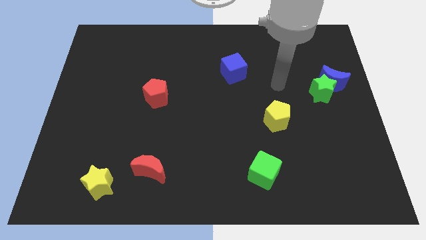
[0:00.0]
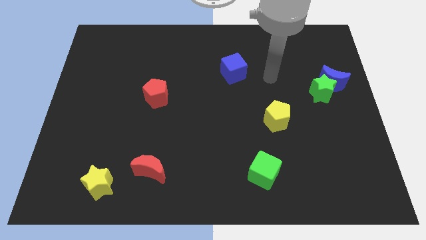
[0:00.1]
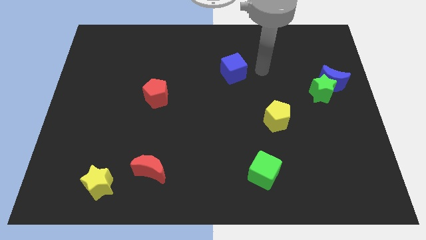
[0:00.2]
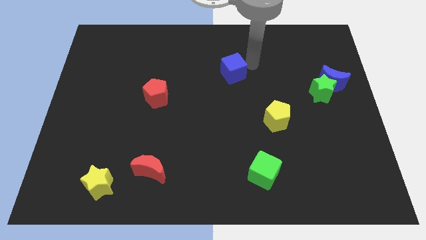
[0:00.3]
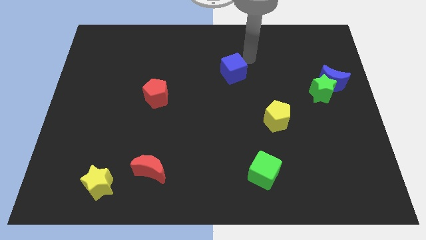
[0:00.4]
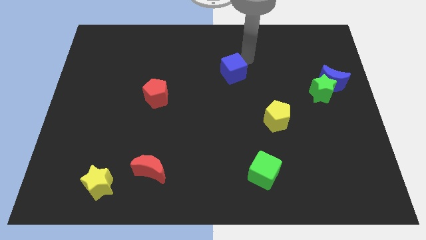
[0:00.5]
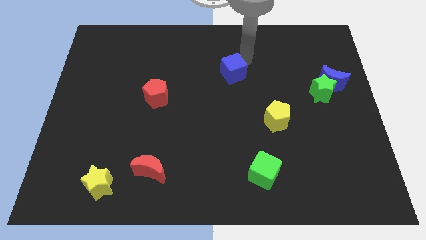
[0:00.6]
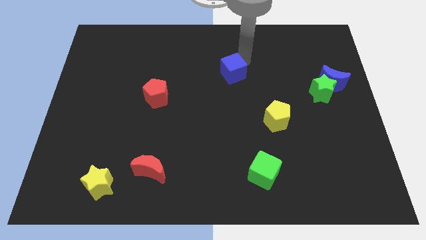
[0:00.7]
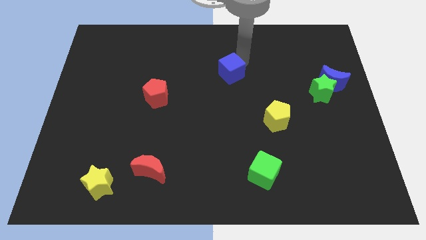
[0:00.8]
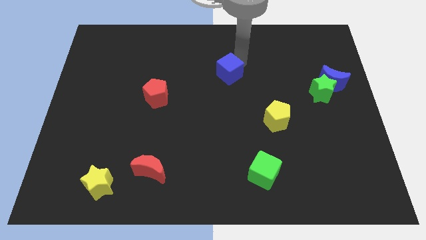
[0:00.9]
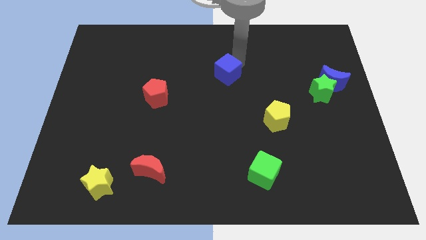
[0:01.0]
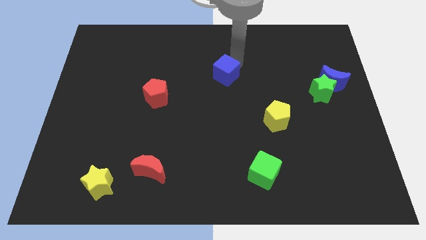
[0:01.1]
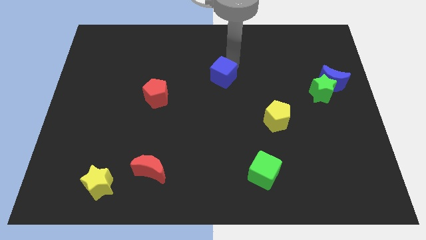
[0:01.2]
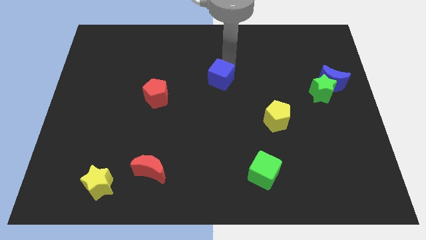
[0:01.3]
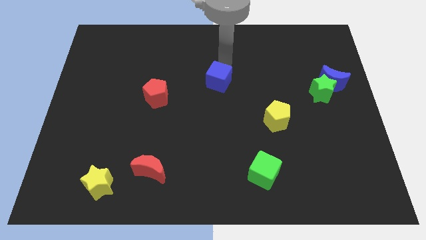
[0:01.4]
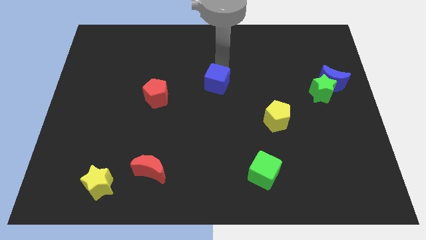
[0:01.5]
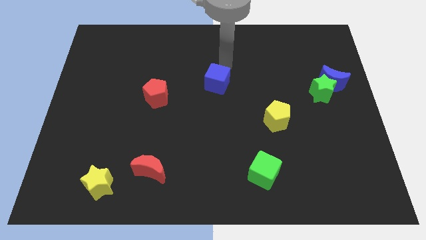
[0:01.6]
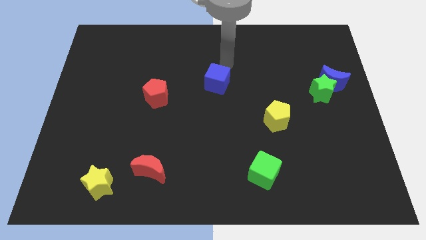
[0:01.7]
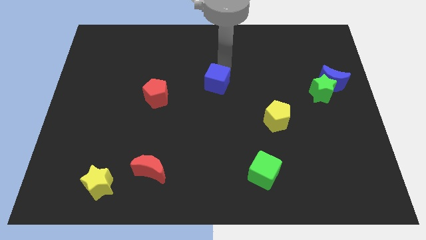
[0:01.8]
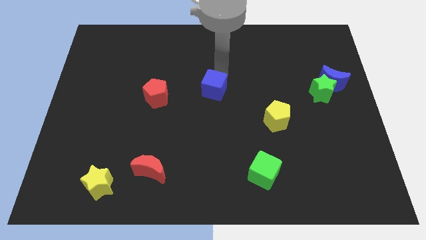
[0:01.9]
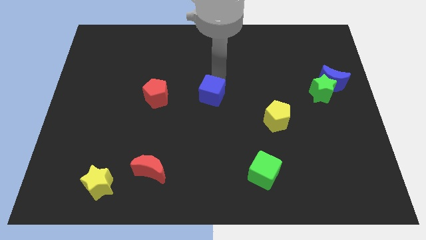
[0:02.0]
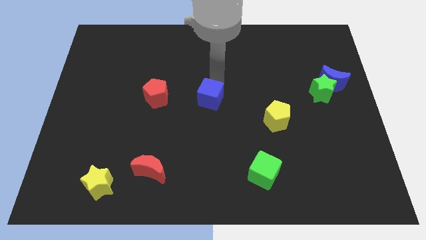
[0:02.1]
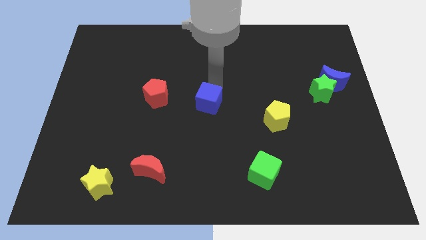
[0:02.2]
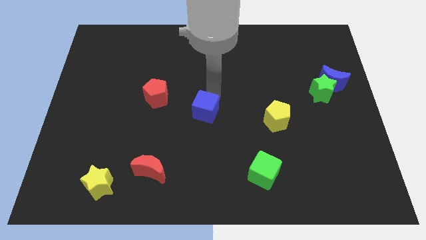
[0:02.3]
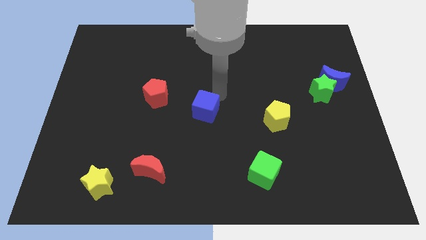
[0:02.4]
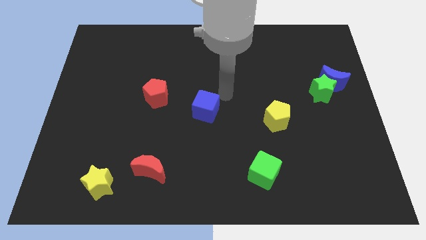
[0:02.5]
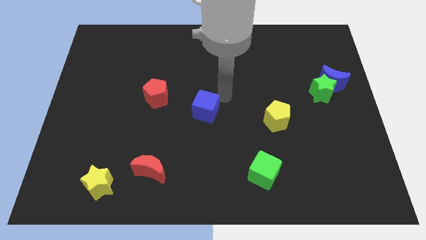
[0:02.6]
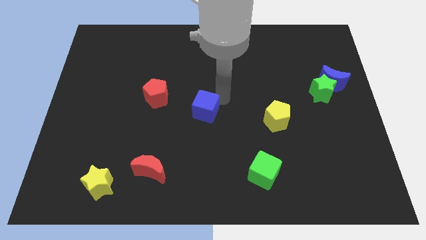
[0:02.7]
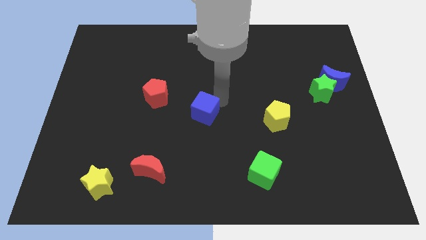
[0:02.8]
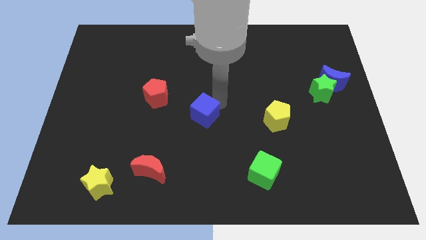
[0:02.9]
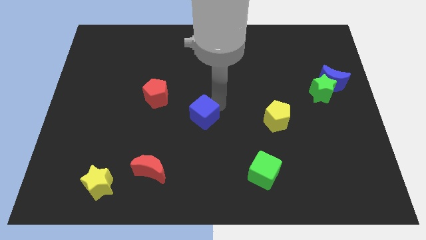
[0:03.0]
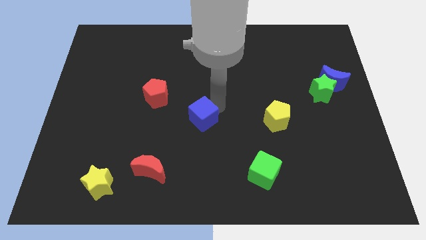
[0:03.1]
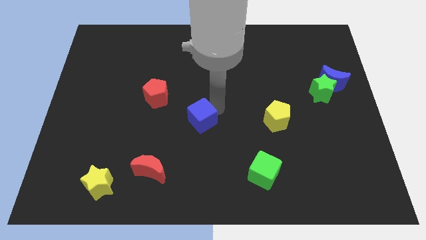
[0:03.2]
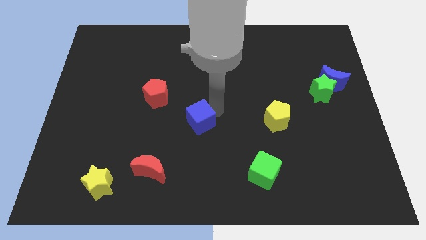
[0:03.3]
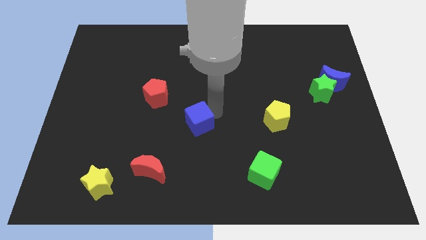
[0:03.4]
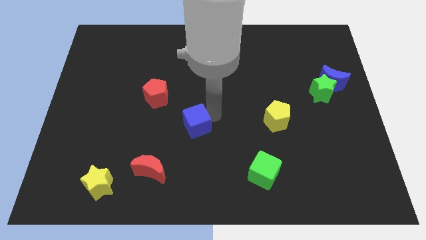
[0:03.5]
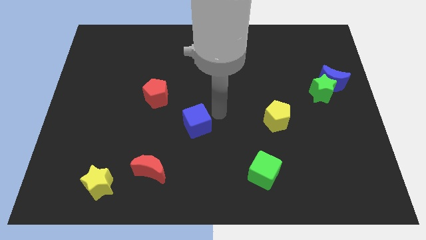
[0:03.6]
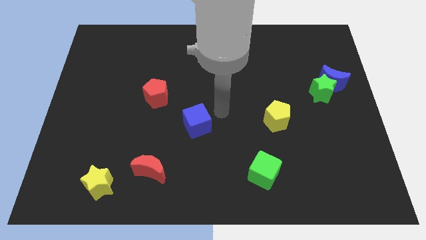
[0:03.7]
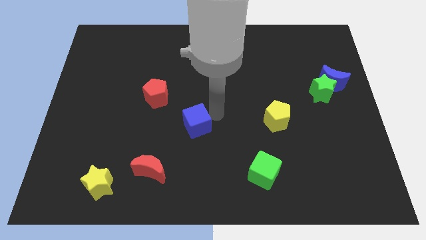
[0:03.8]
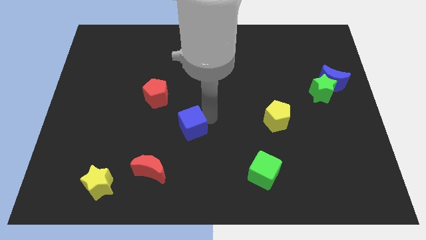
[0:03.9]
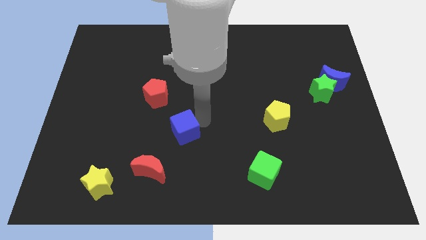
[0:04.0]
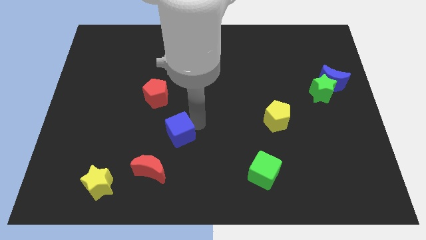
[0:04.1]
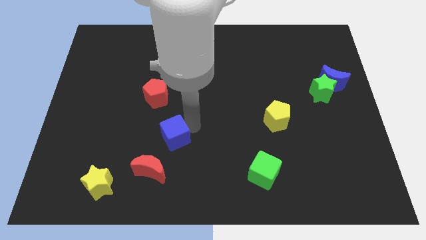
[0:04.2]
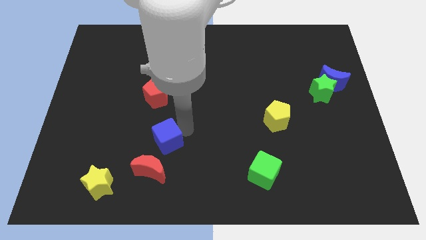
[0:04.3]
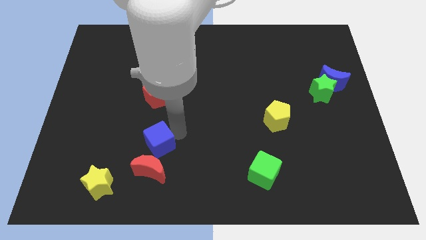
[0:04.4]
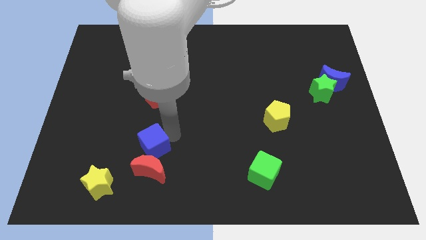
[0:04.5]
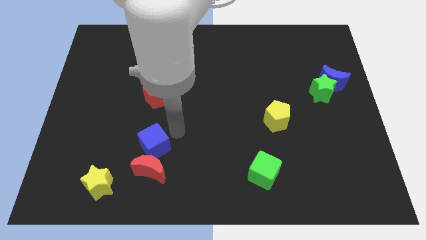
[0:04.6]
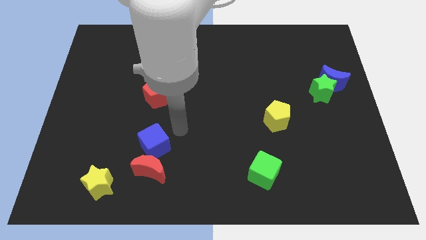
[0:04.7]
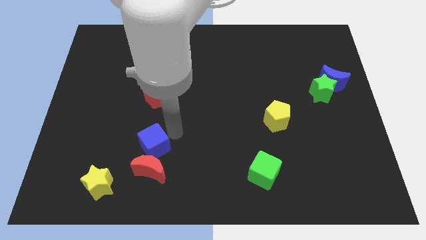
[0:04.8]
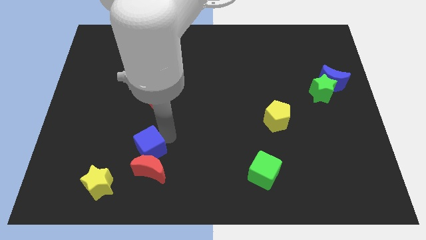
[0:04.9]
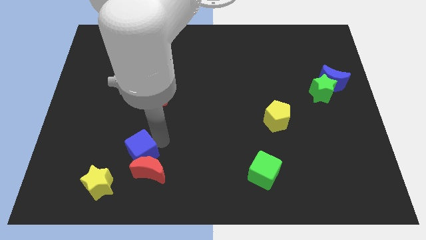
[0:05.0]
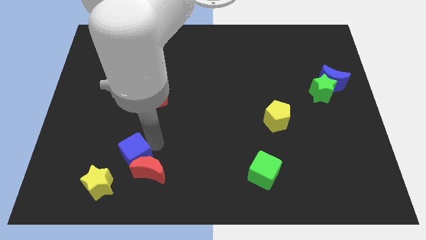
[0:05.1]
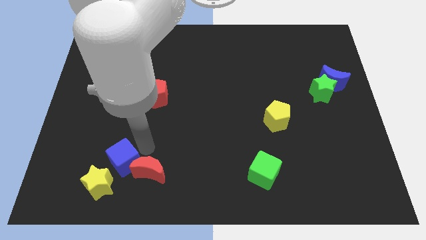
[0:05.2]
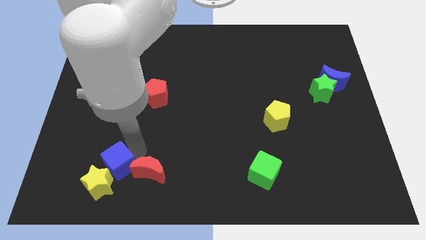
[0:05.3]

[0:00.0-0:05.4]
put the blue cube next to the yellow star

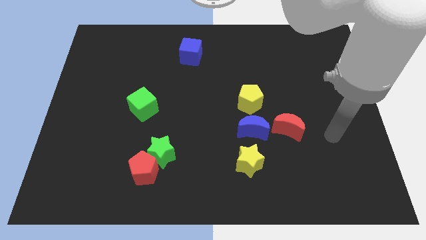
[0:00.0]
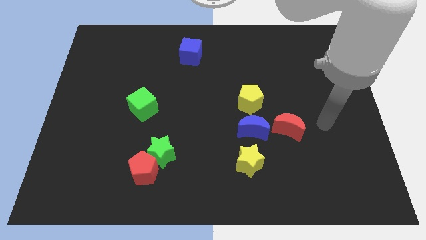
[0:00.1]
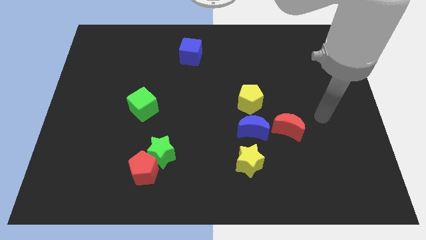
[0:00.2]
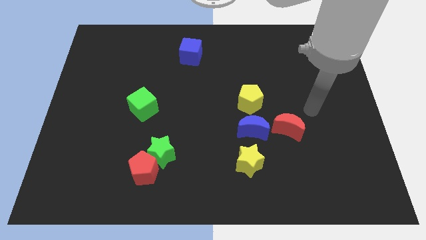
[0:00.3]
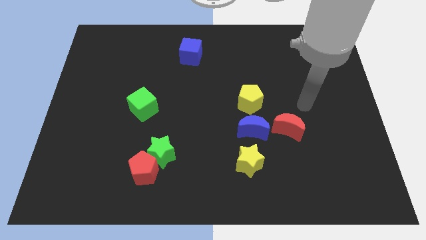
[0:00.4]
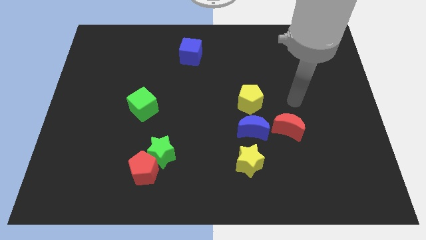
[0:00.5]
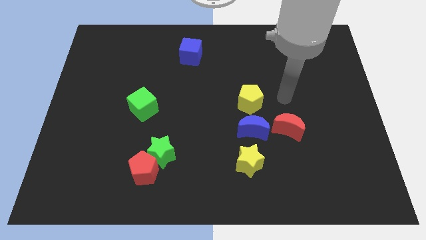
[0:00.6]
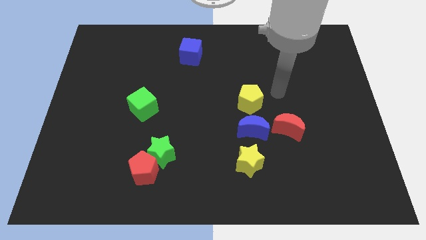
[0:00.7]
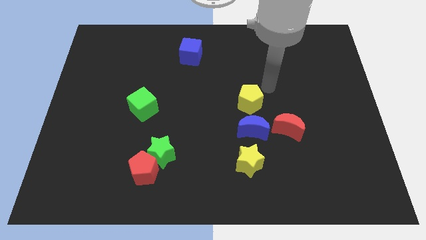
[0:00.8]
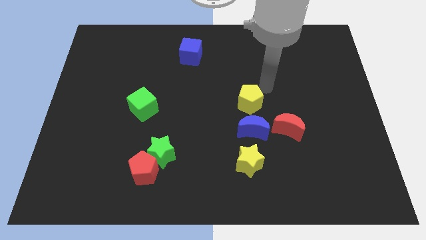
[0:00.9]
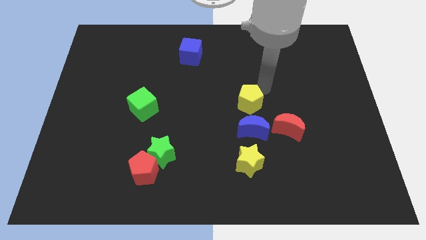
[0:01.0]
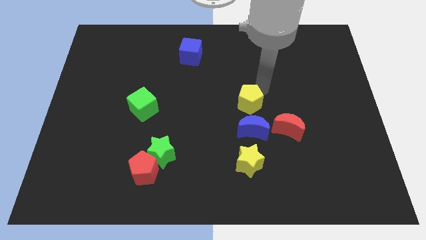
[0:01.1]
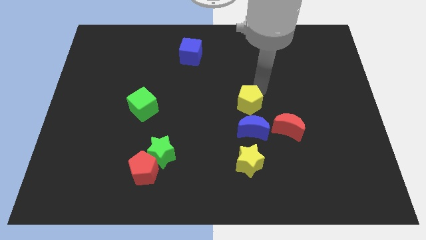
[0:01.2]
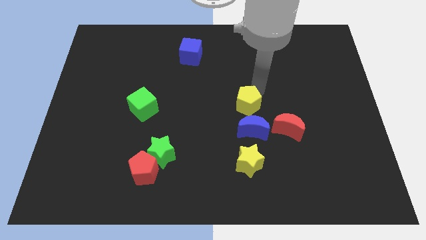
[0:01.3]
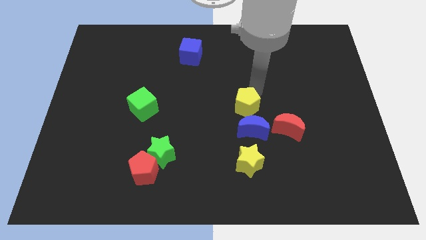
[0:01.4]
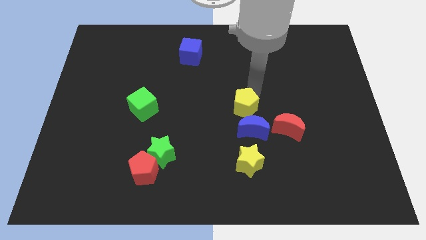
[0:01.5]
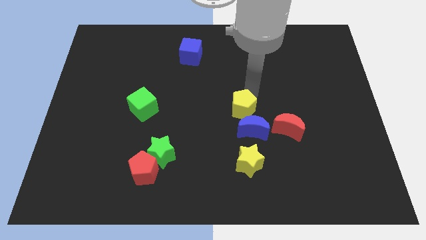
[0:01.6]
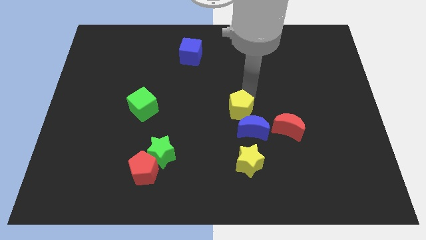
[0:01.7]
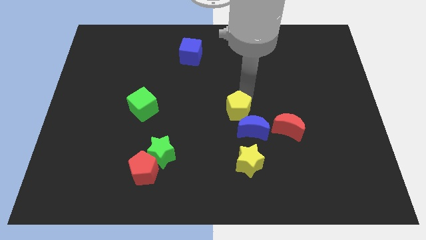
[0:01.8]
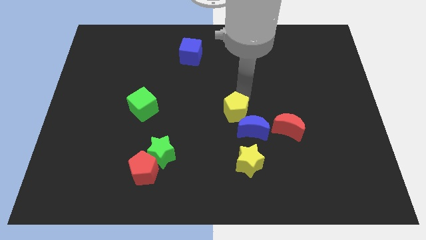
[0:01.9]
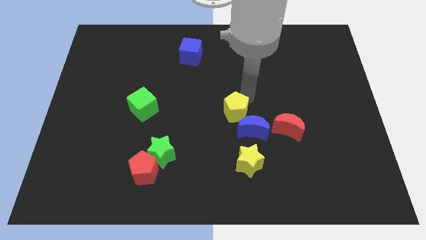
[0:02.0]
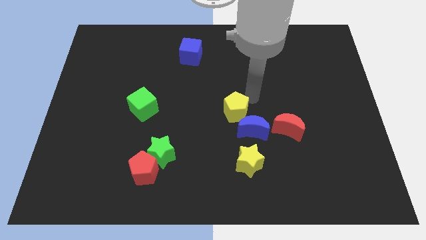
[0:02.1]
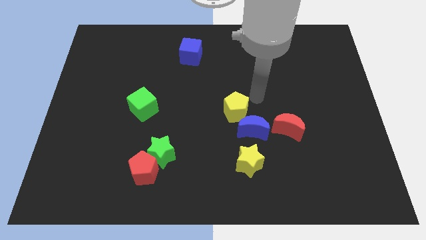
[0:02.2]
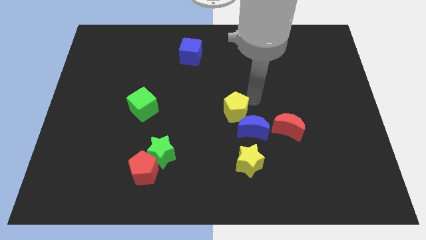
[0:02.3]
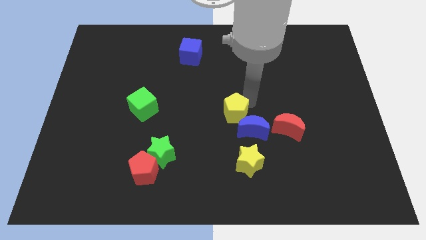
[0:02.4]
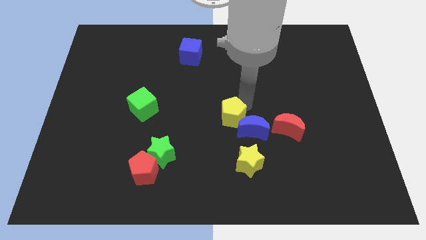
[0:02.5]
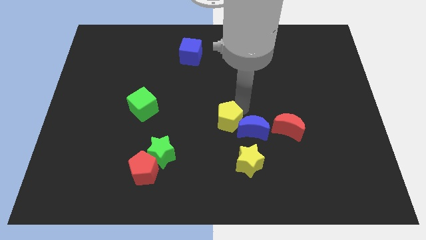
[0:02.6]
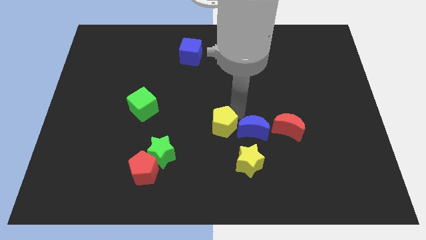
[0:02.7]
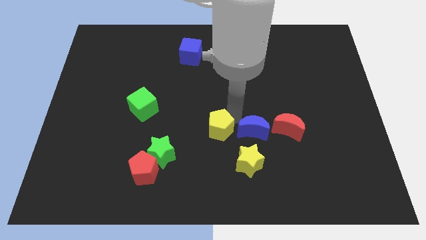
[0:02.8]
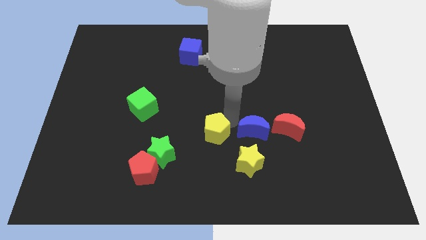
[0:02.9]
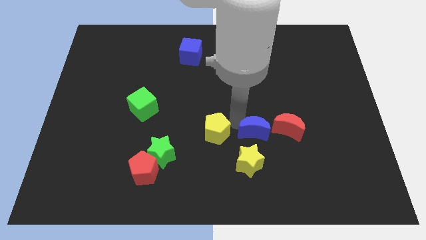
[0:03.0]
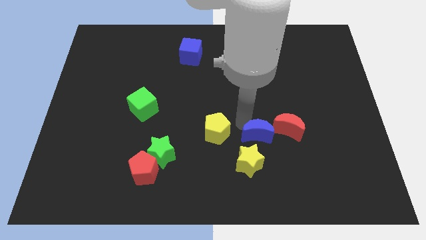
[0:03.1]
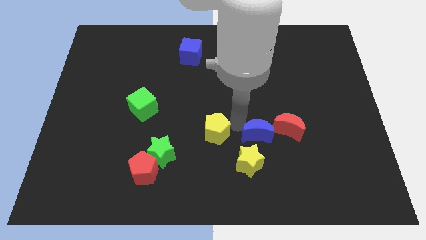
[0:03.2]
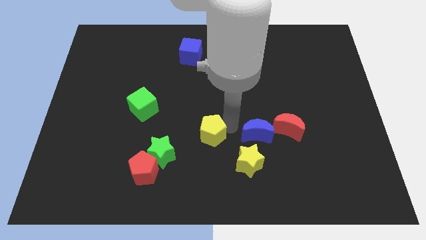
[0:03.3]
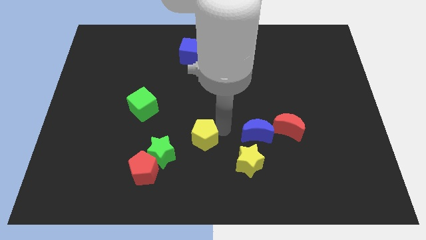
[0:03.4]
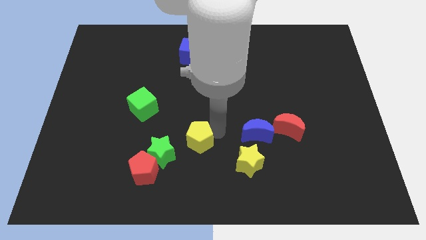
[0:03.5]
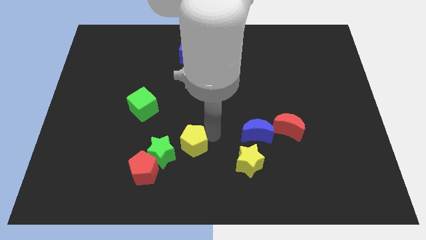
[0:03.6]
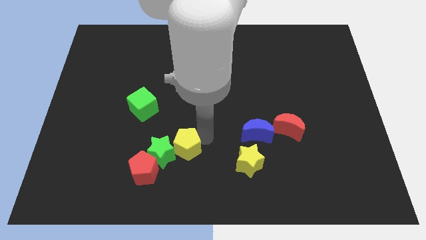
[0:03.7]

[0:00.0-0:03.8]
push the yellow pentagon to the green star
